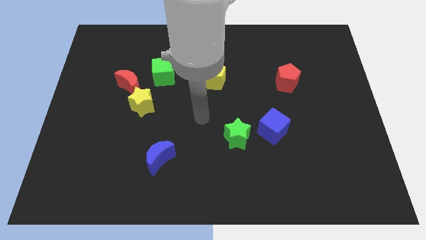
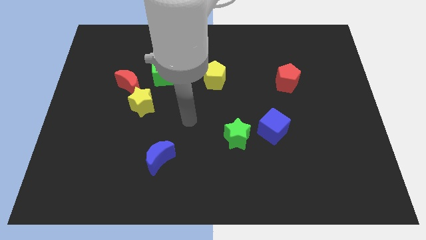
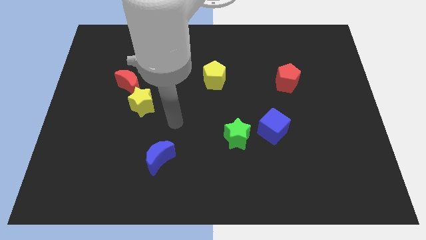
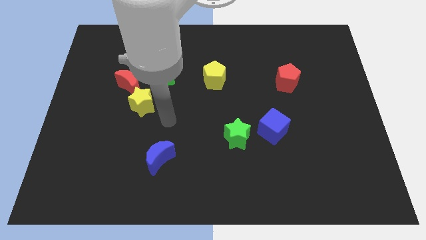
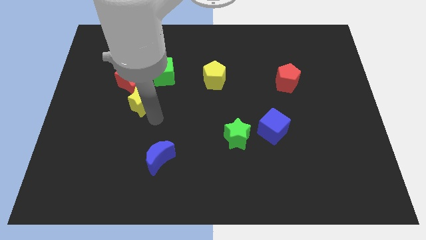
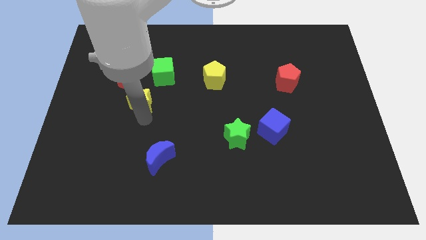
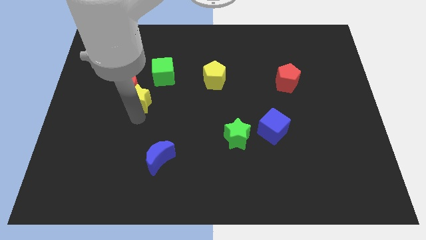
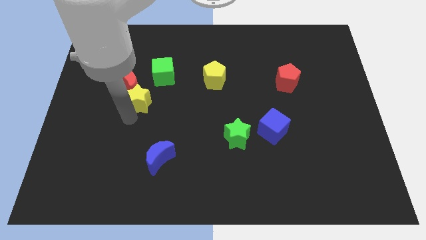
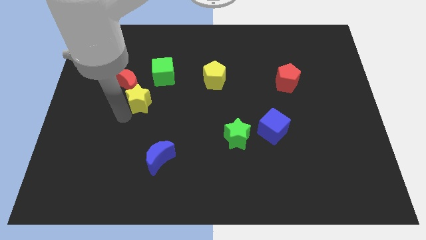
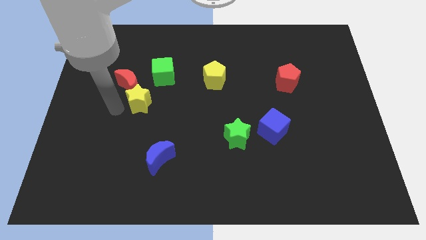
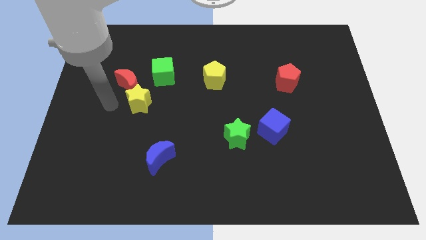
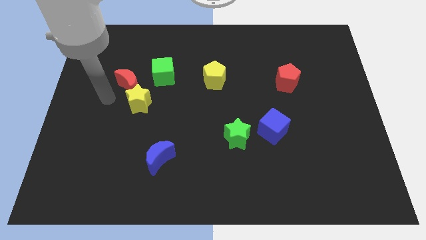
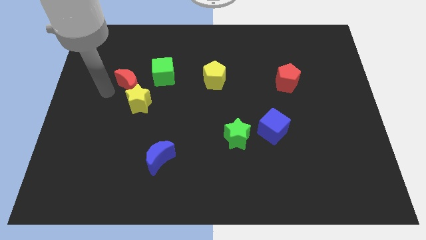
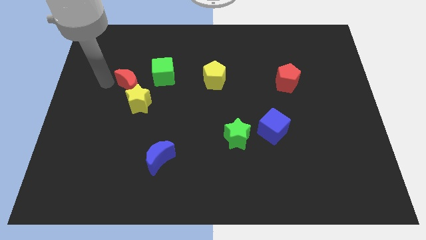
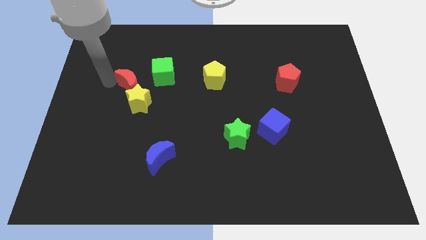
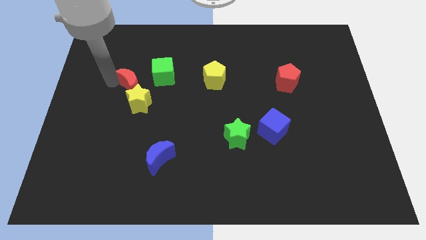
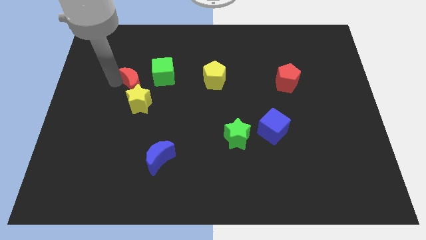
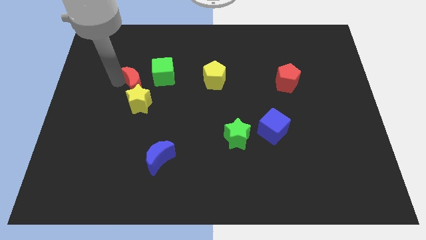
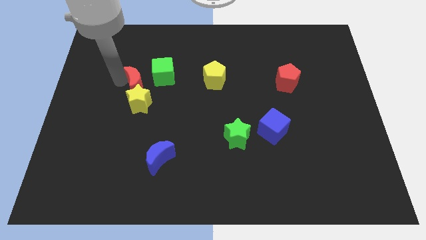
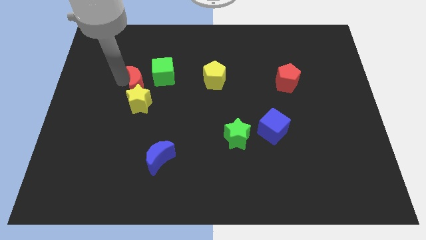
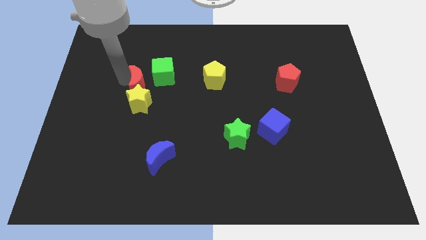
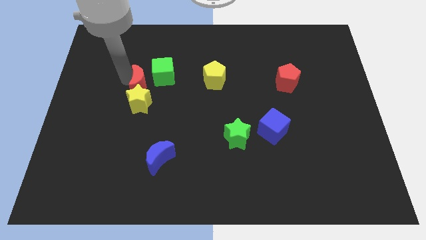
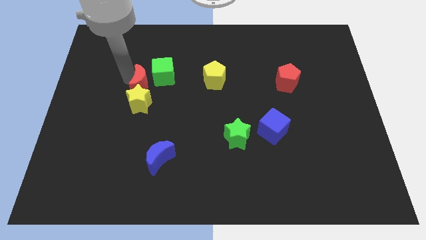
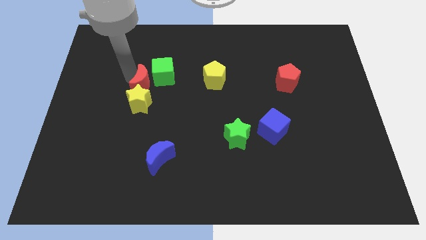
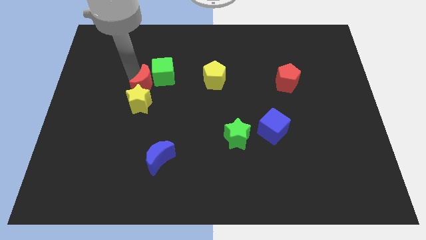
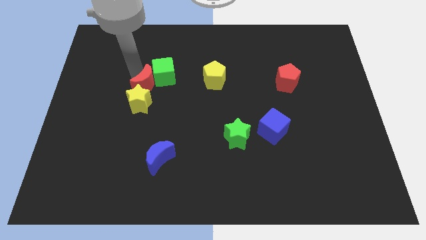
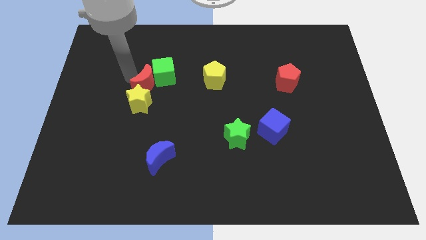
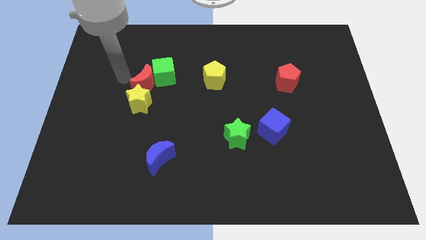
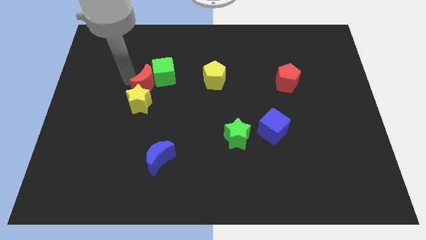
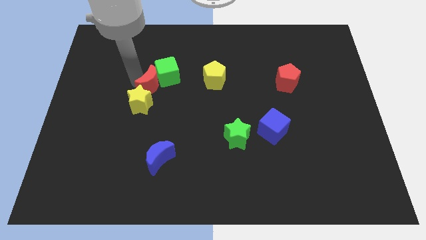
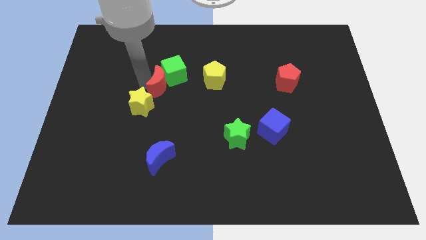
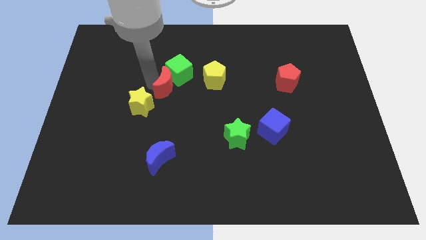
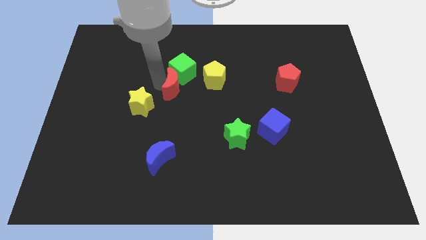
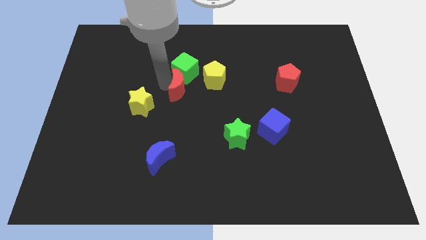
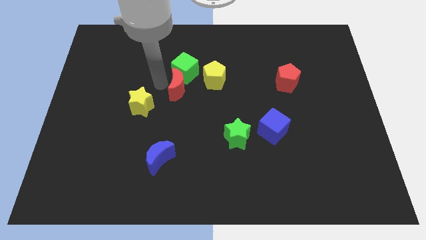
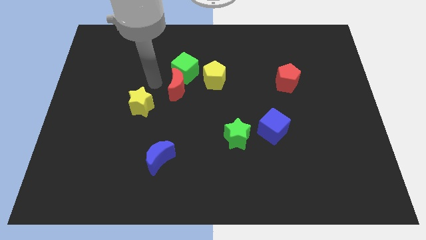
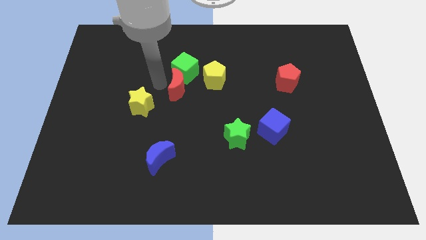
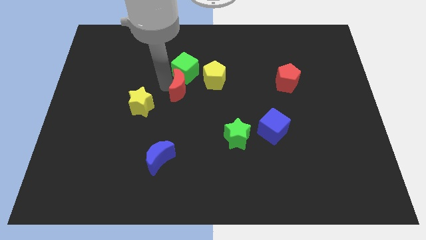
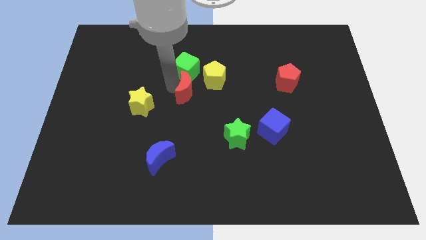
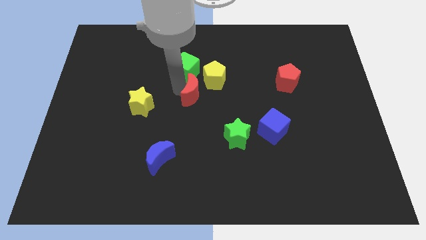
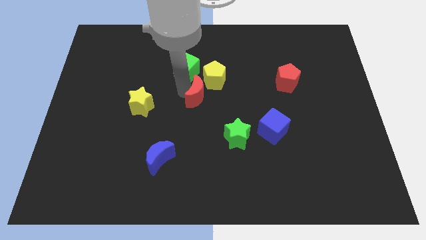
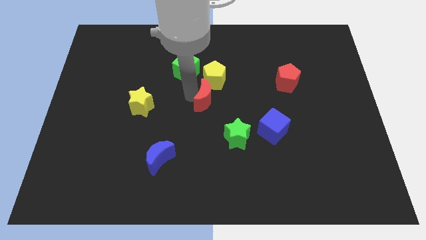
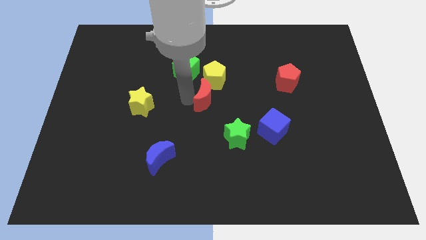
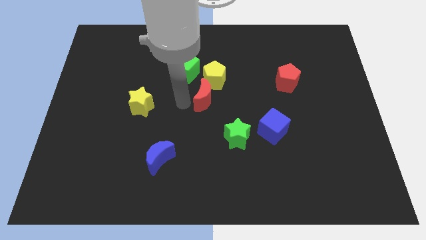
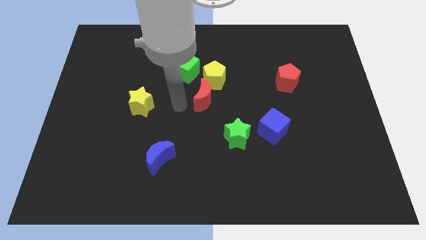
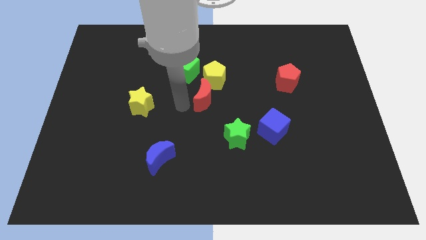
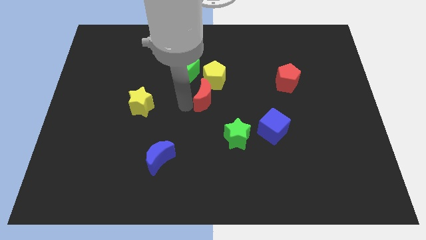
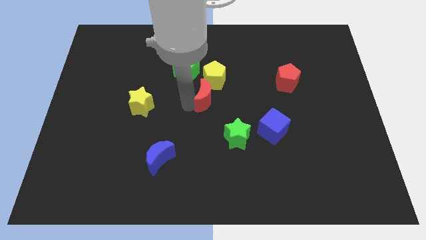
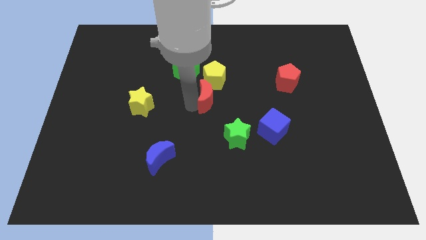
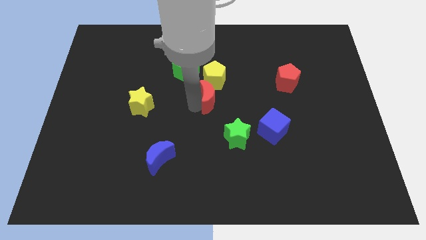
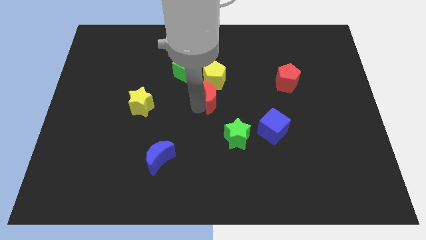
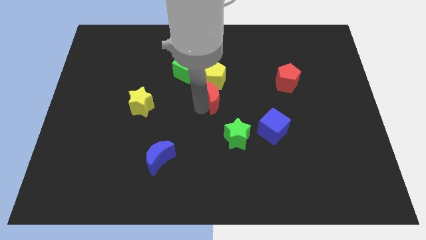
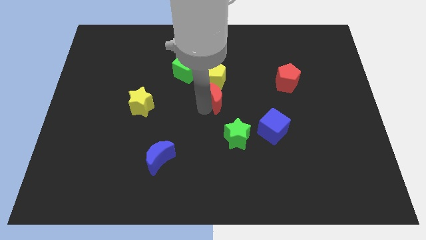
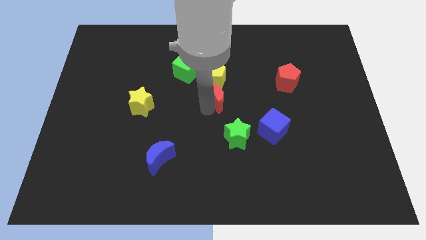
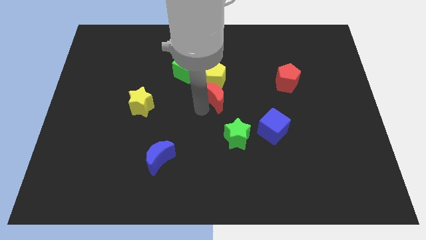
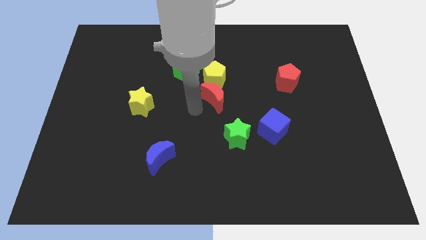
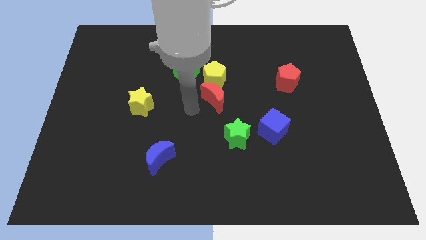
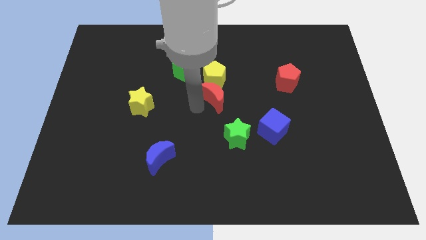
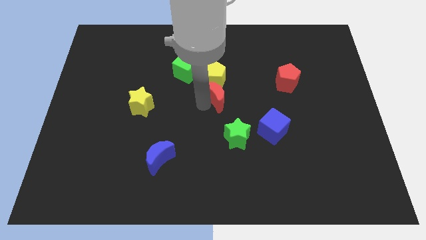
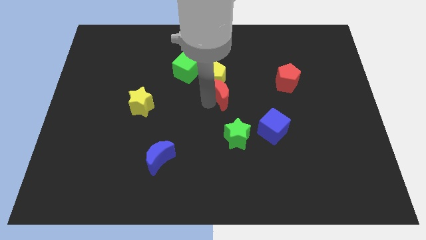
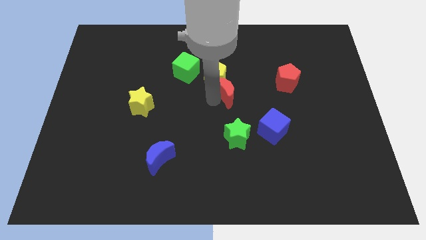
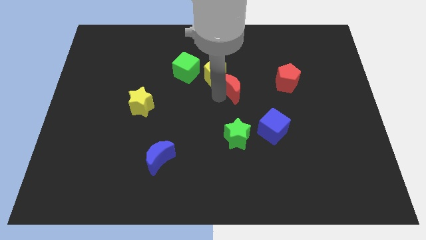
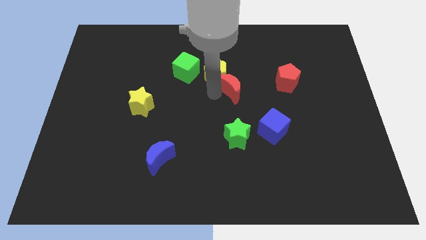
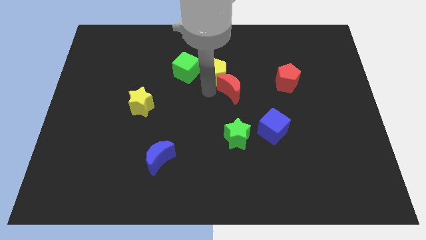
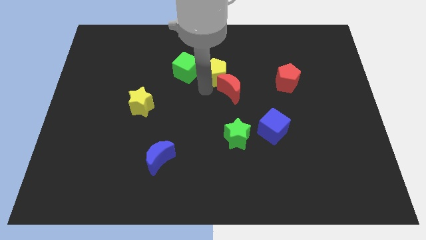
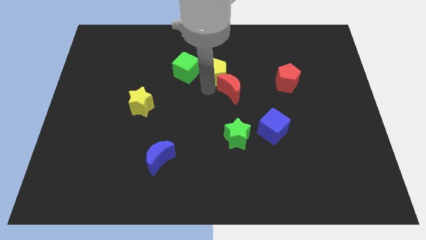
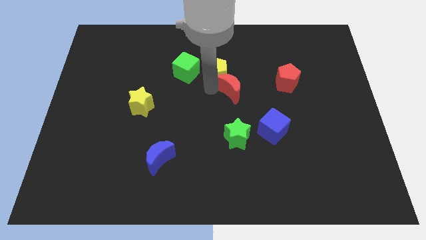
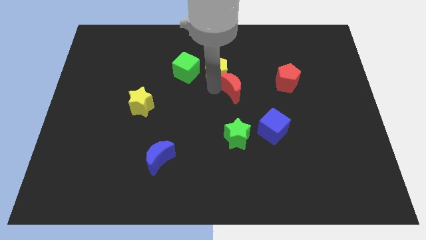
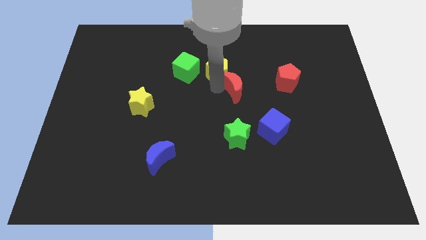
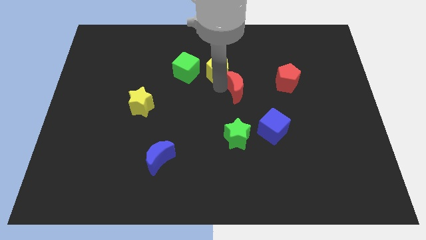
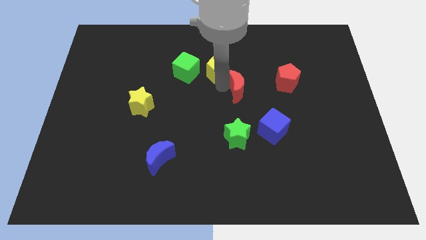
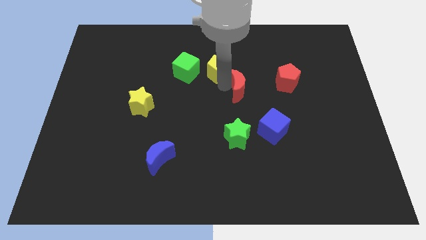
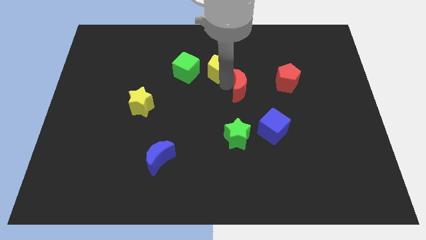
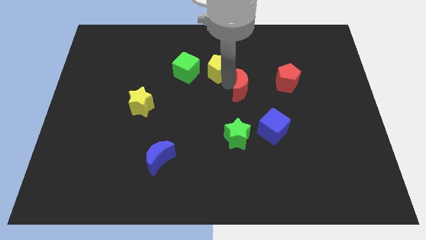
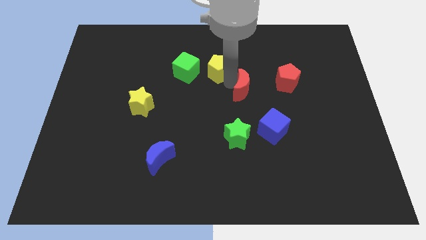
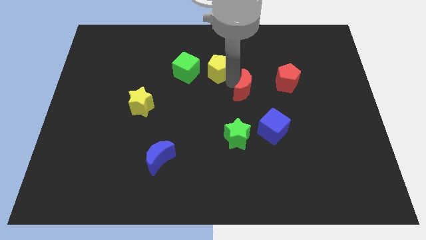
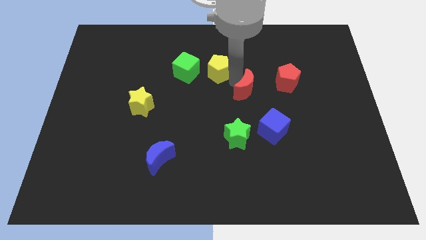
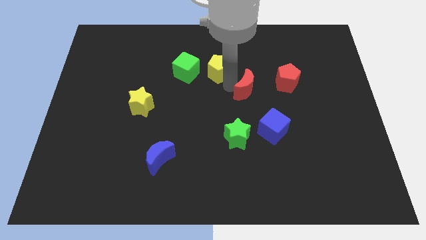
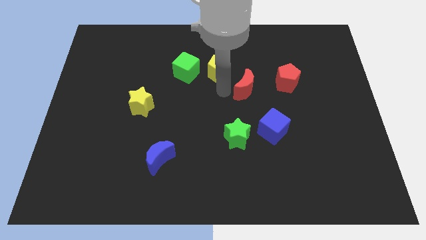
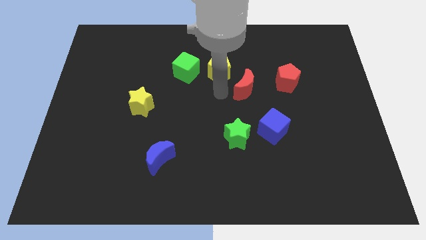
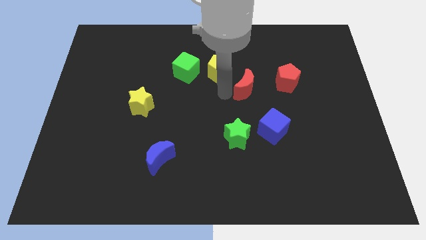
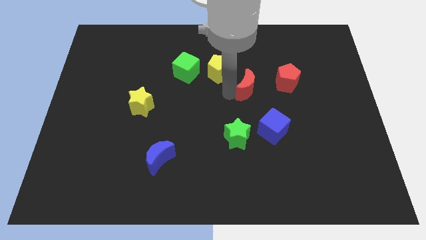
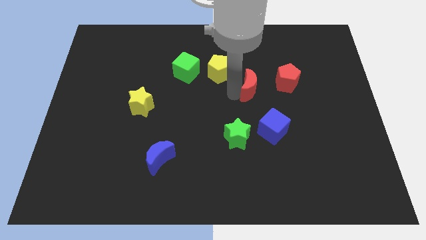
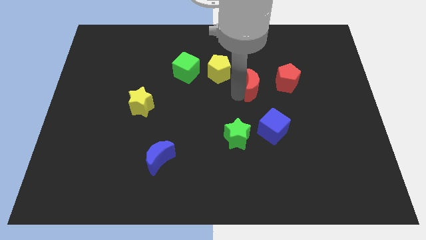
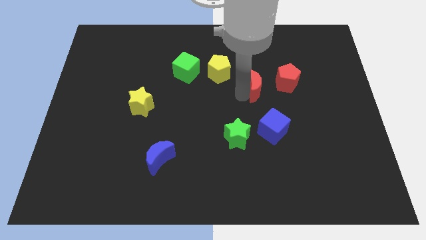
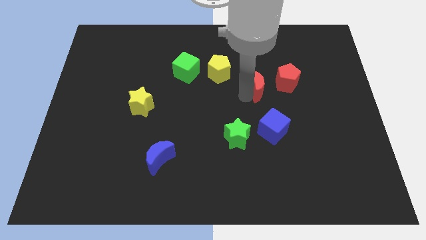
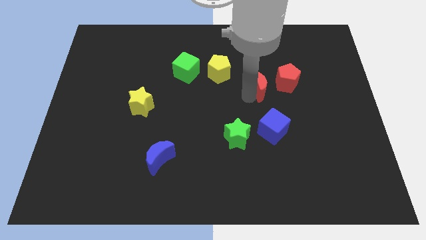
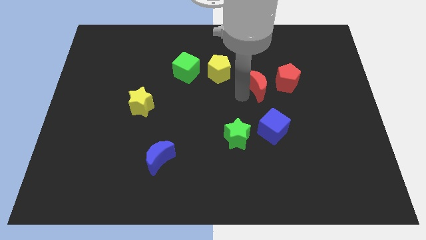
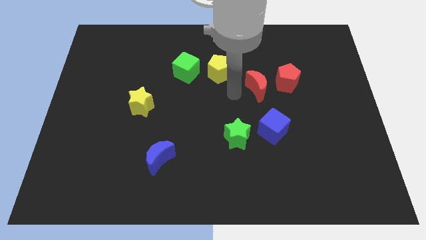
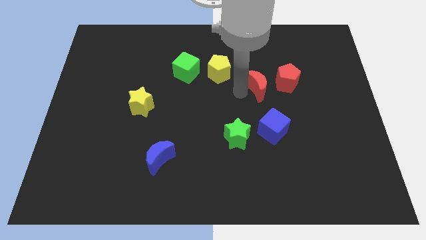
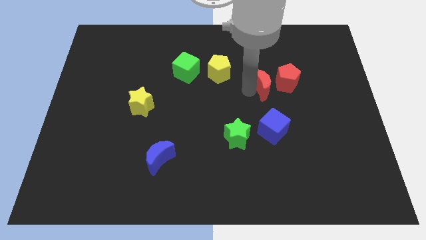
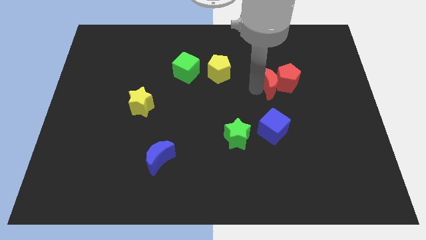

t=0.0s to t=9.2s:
slide the red moon towards the red pentagon
